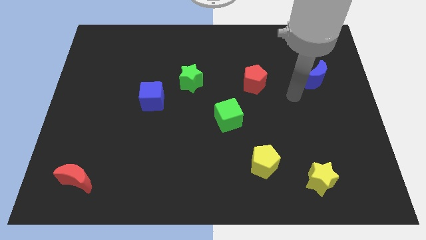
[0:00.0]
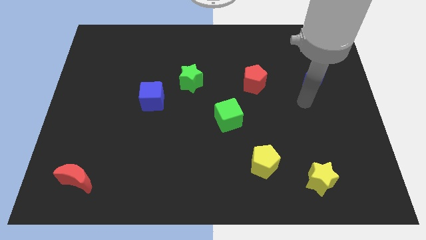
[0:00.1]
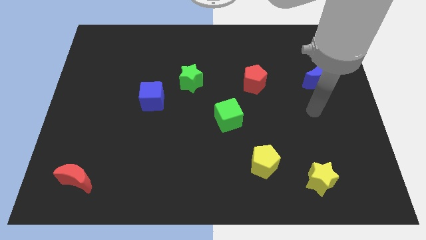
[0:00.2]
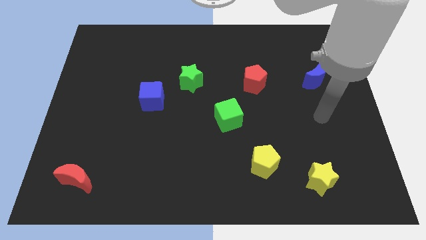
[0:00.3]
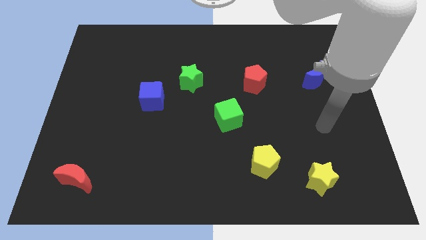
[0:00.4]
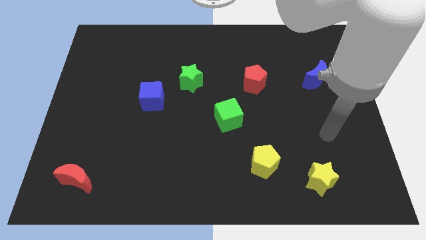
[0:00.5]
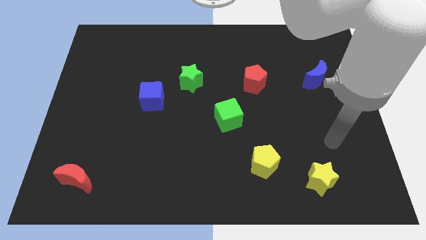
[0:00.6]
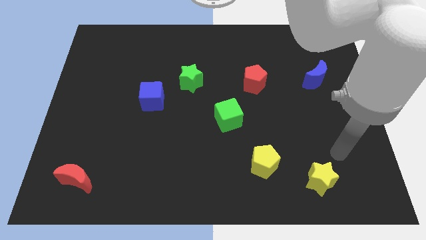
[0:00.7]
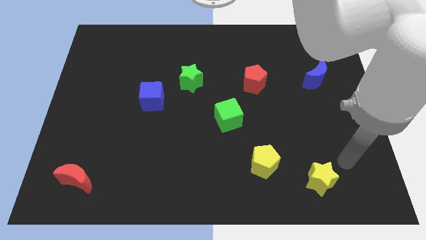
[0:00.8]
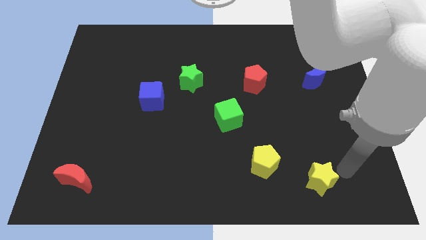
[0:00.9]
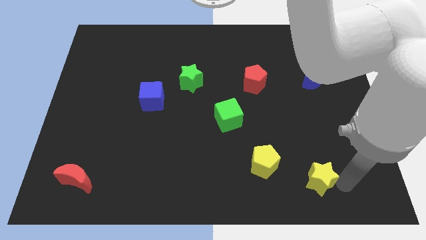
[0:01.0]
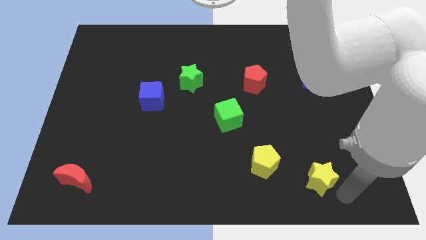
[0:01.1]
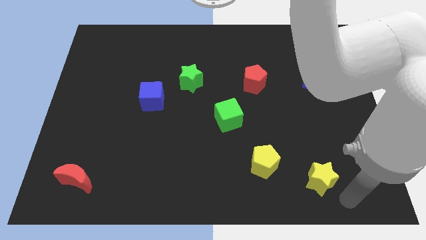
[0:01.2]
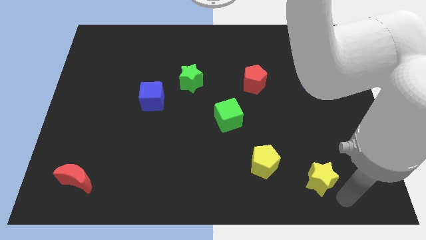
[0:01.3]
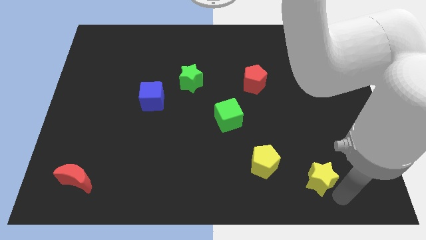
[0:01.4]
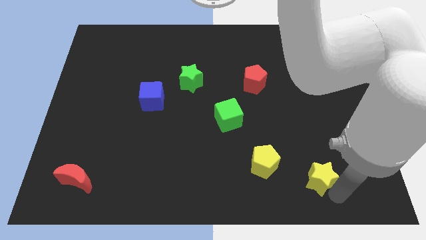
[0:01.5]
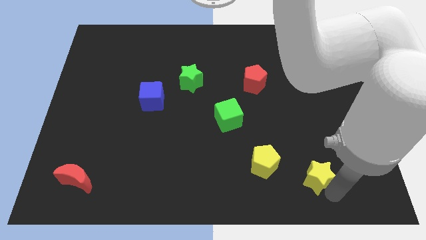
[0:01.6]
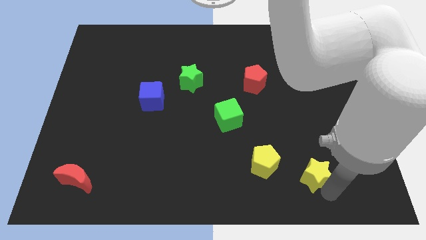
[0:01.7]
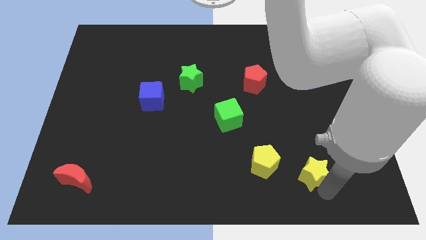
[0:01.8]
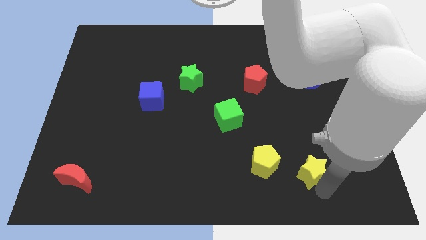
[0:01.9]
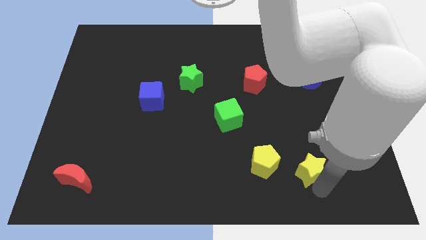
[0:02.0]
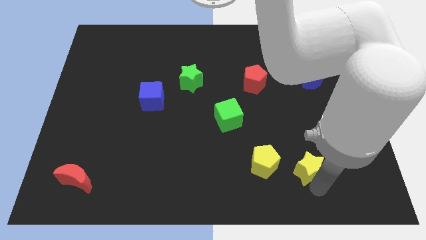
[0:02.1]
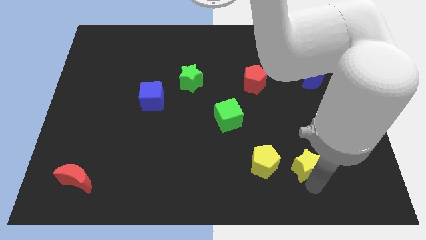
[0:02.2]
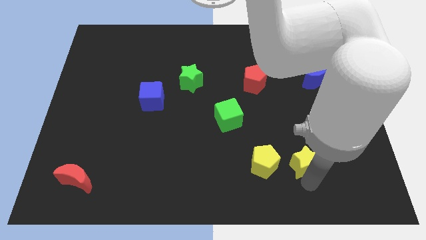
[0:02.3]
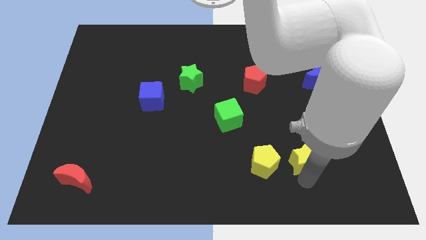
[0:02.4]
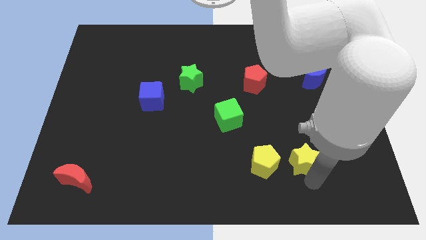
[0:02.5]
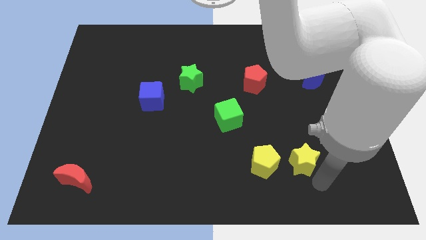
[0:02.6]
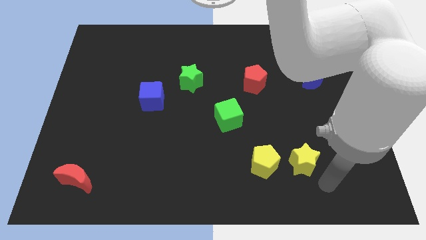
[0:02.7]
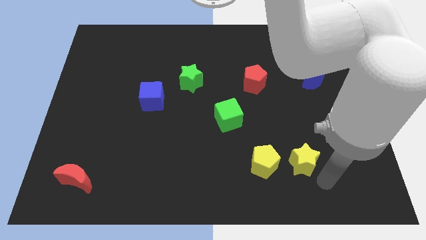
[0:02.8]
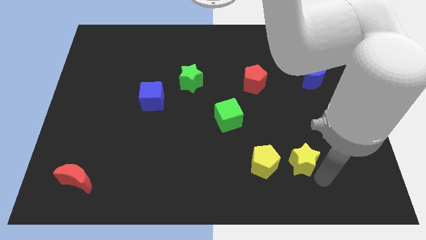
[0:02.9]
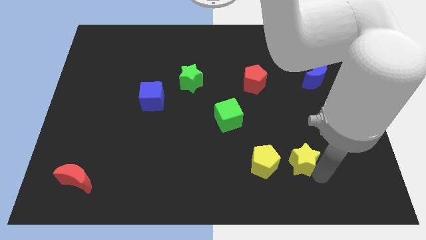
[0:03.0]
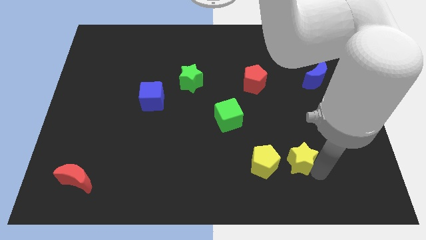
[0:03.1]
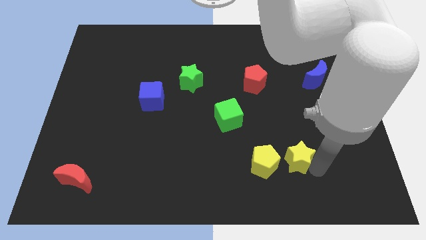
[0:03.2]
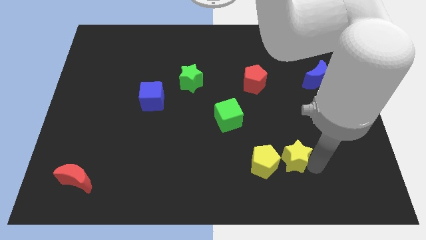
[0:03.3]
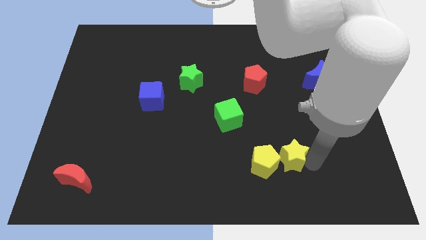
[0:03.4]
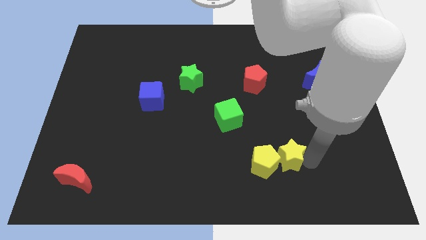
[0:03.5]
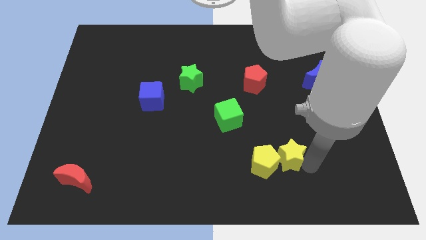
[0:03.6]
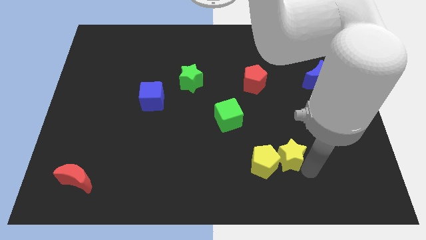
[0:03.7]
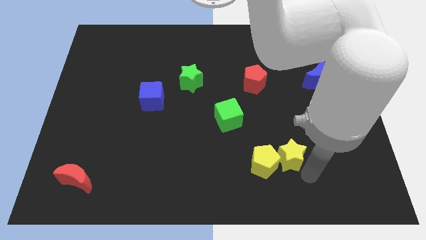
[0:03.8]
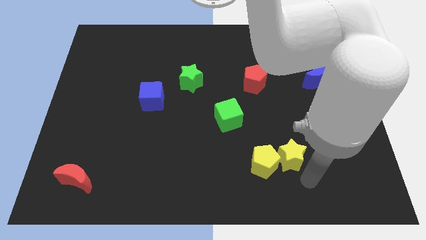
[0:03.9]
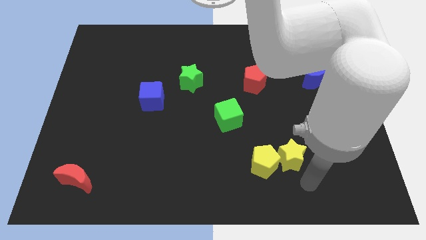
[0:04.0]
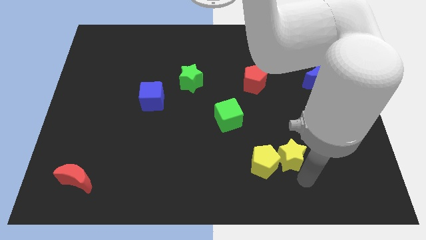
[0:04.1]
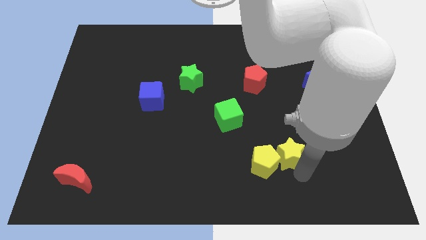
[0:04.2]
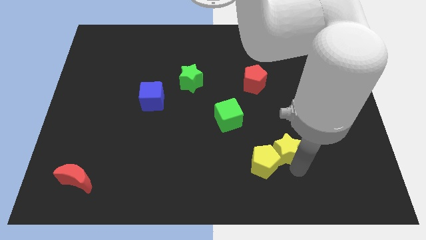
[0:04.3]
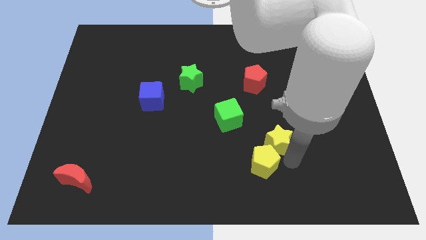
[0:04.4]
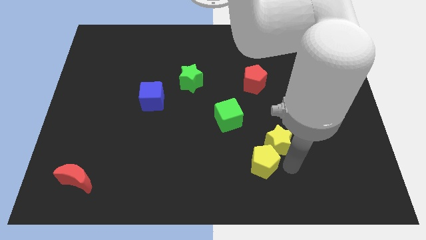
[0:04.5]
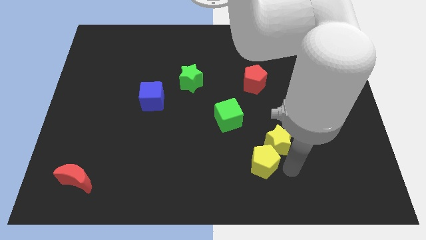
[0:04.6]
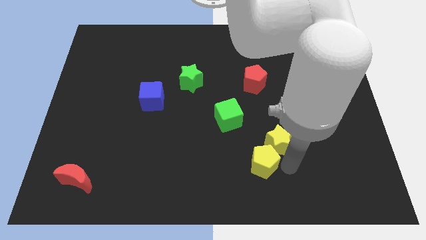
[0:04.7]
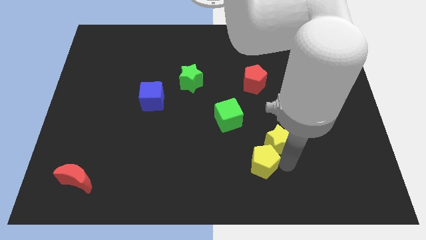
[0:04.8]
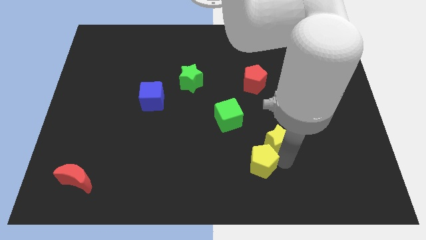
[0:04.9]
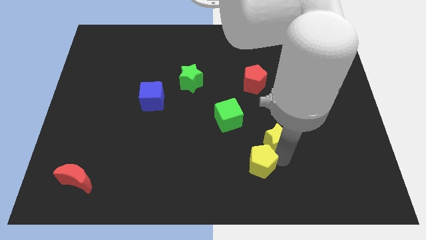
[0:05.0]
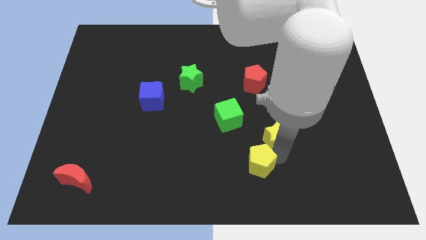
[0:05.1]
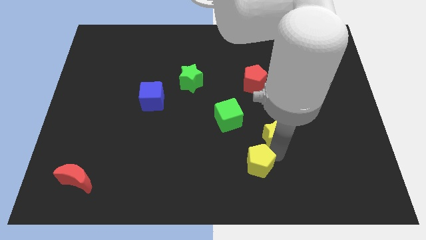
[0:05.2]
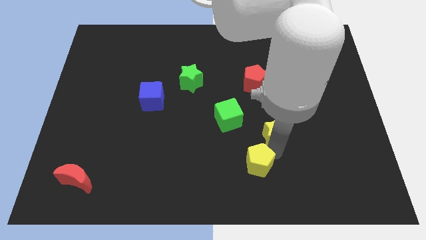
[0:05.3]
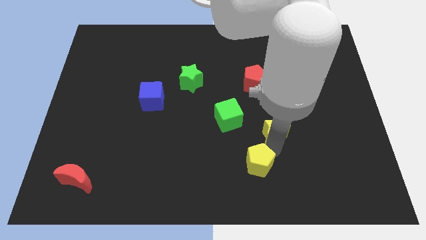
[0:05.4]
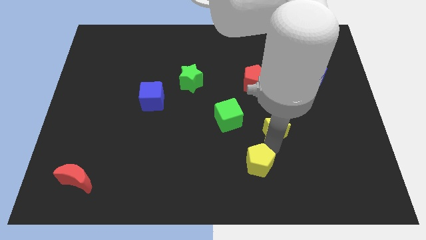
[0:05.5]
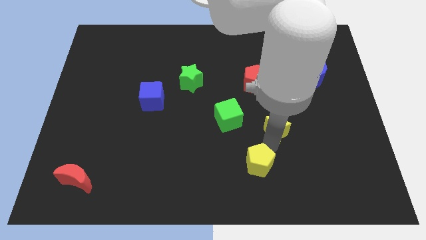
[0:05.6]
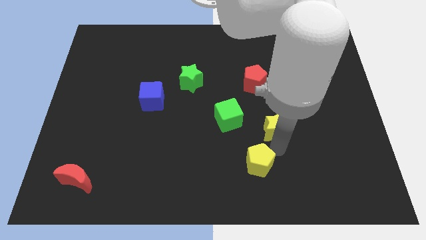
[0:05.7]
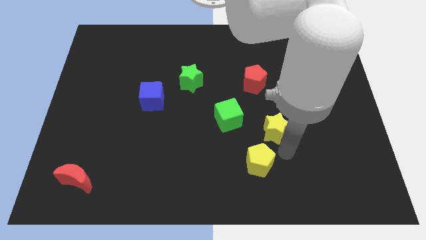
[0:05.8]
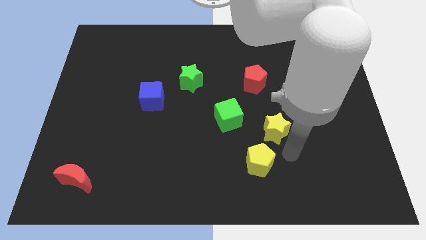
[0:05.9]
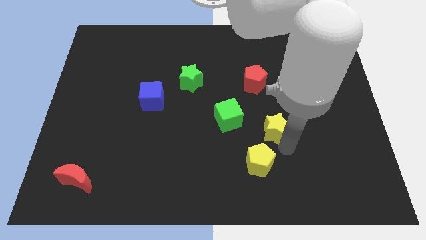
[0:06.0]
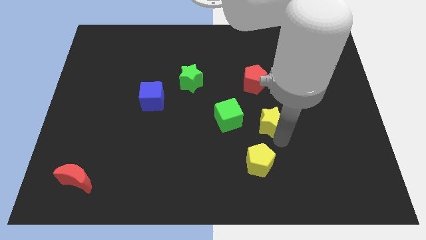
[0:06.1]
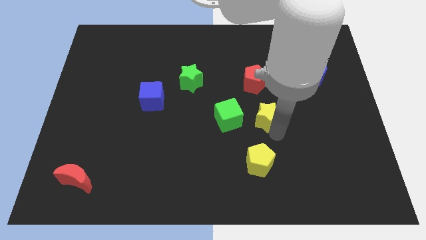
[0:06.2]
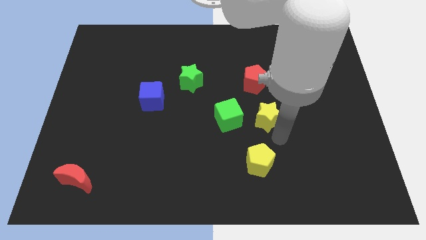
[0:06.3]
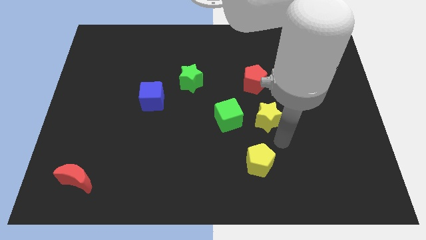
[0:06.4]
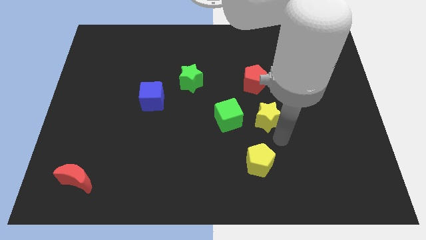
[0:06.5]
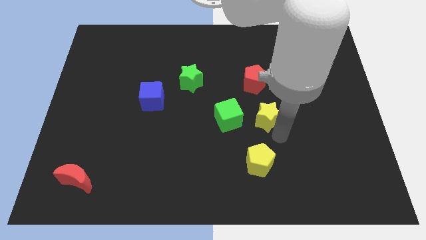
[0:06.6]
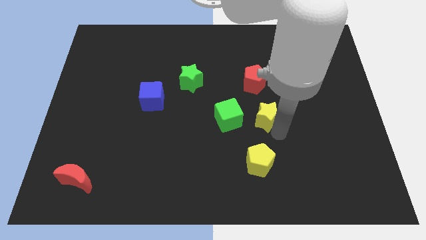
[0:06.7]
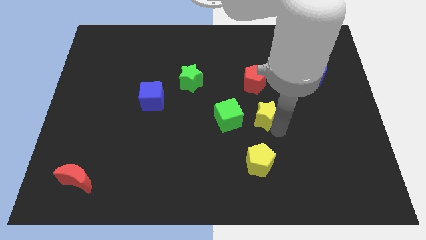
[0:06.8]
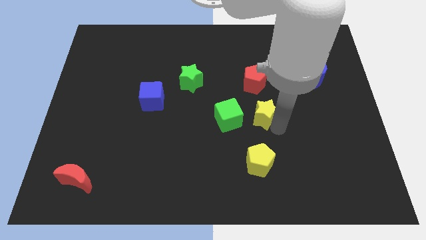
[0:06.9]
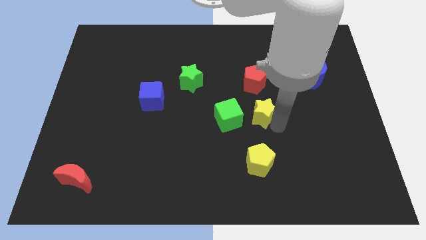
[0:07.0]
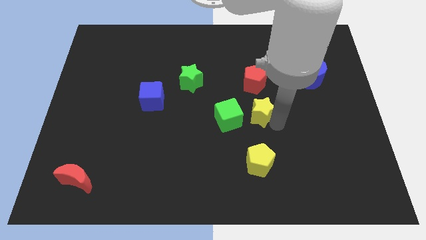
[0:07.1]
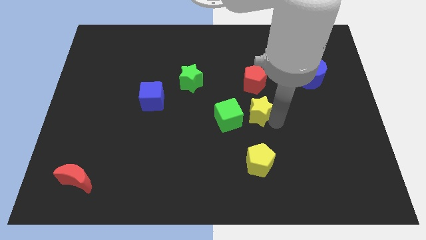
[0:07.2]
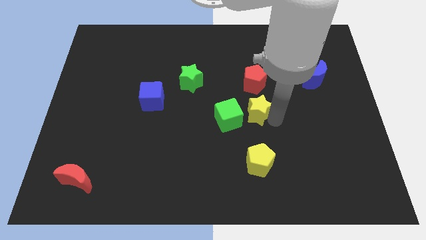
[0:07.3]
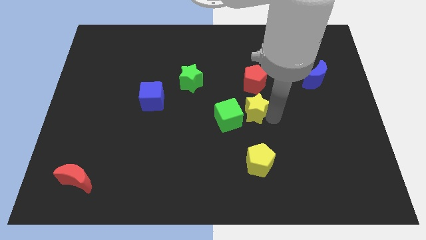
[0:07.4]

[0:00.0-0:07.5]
slide the yellow star diagonally upwards and to the left

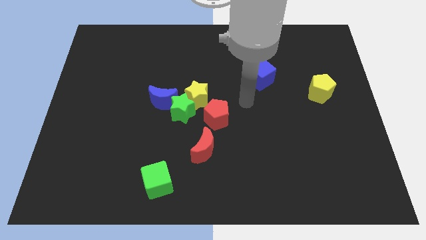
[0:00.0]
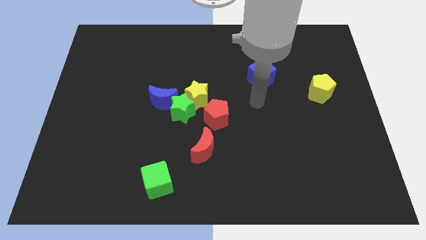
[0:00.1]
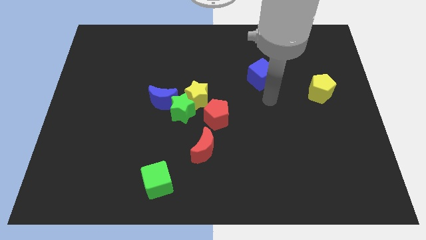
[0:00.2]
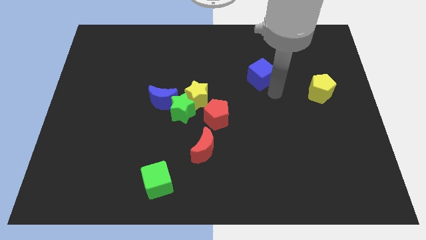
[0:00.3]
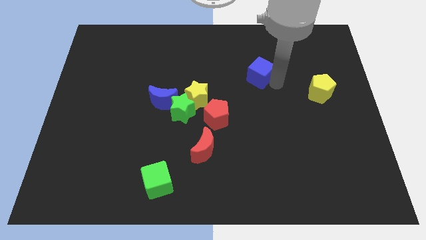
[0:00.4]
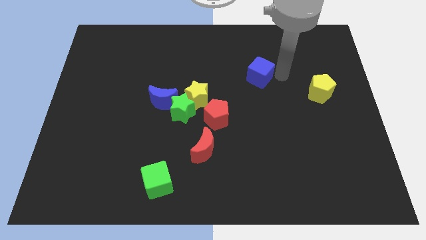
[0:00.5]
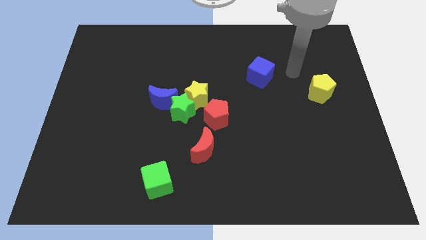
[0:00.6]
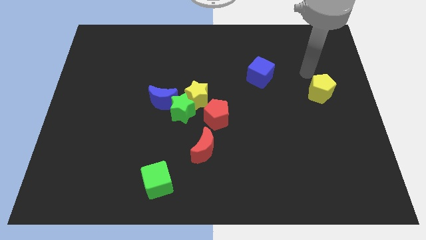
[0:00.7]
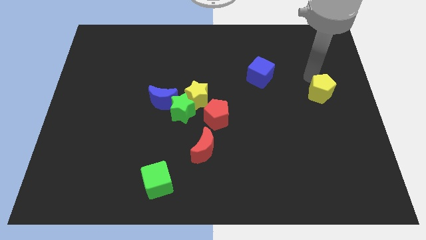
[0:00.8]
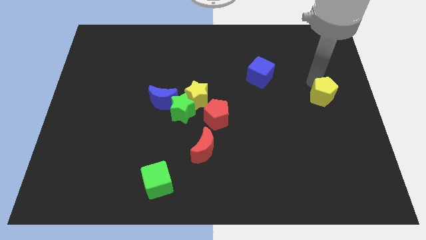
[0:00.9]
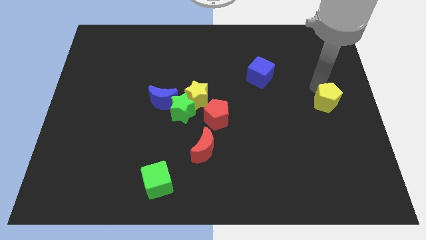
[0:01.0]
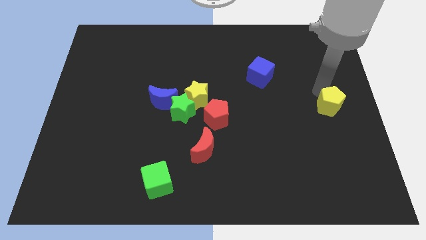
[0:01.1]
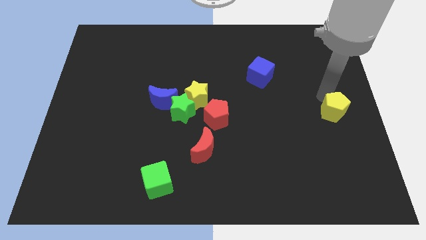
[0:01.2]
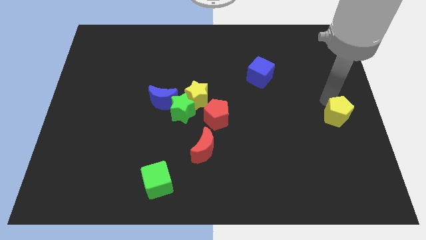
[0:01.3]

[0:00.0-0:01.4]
move the yellow pentagon down a little bit
